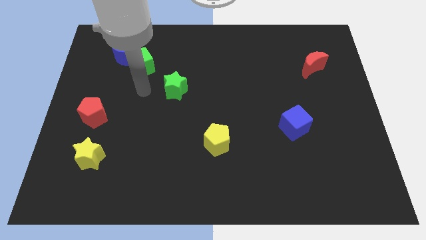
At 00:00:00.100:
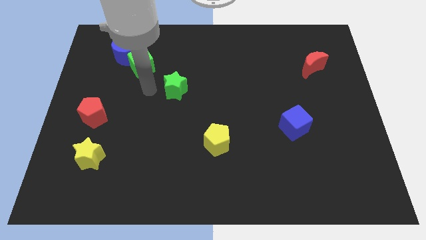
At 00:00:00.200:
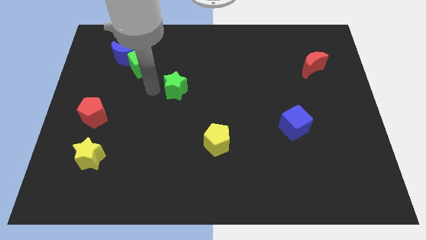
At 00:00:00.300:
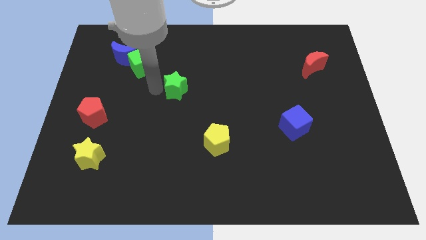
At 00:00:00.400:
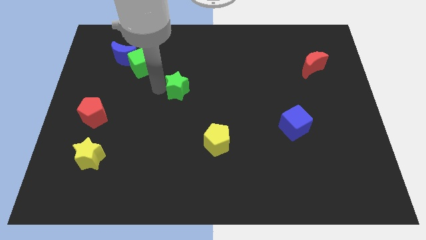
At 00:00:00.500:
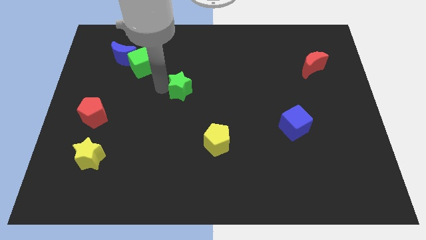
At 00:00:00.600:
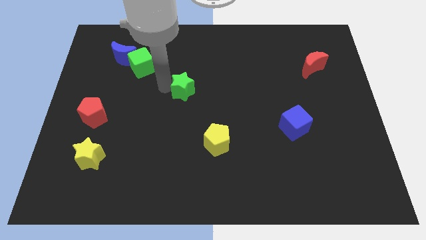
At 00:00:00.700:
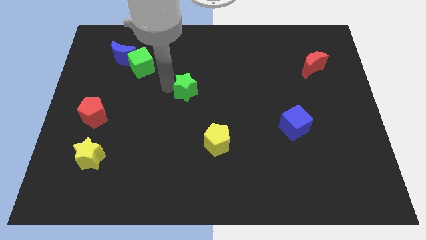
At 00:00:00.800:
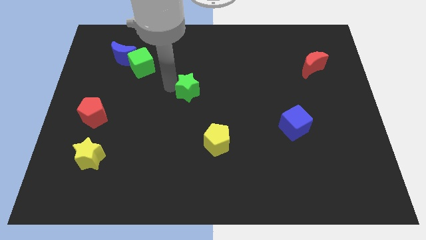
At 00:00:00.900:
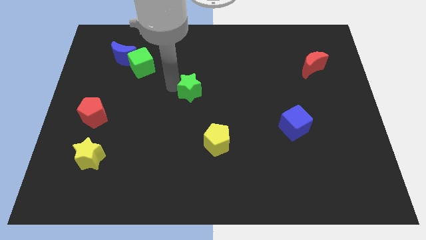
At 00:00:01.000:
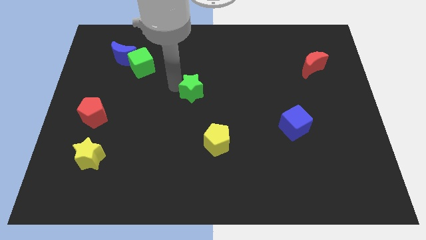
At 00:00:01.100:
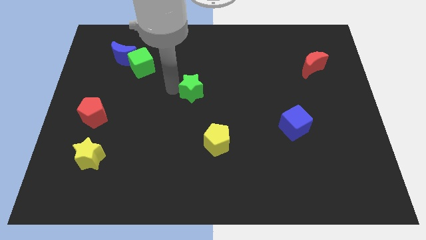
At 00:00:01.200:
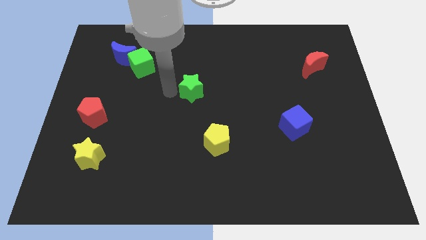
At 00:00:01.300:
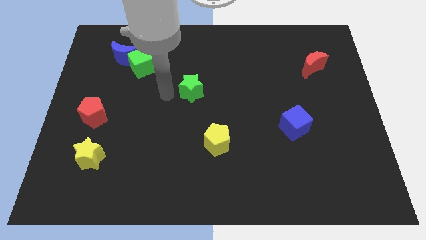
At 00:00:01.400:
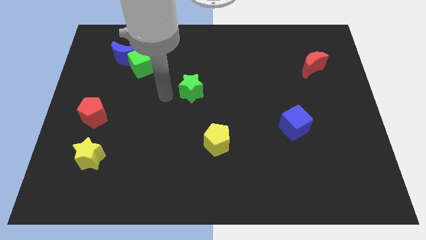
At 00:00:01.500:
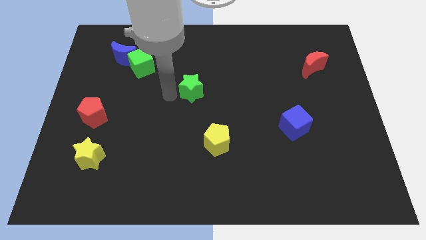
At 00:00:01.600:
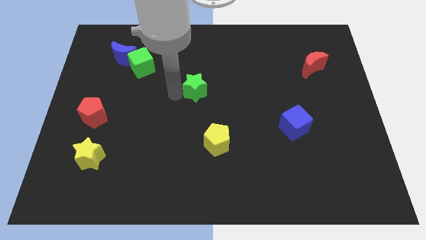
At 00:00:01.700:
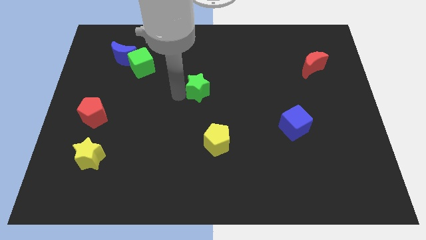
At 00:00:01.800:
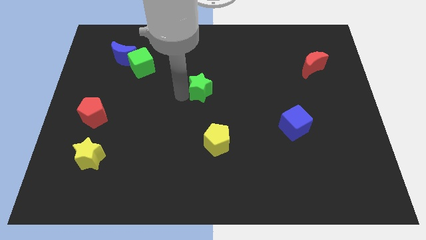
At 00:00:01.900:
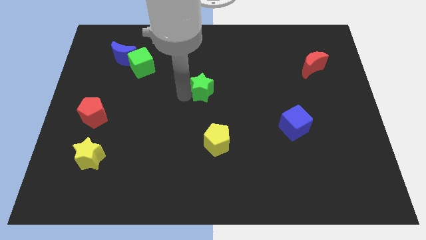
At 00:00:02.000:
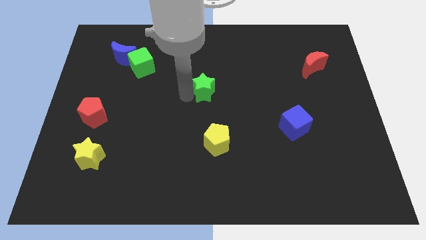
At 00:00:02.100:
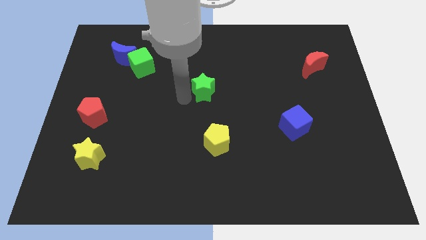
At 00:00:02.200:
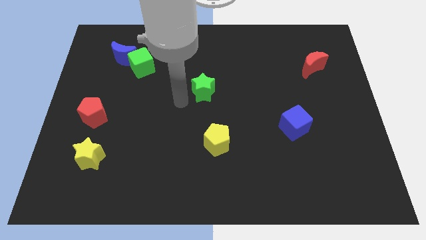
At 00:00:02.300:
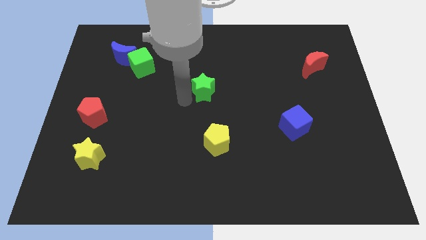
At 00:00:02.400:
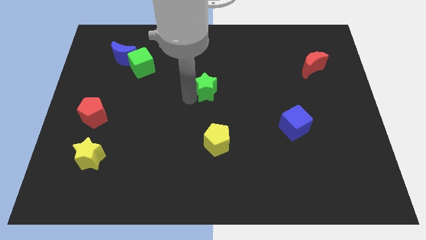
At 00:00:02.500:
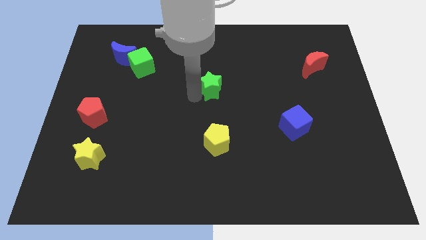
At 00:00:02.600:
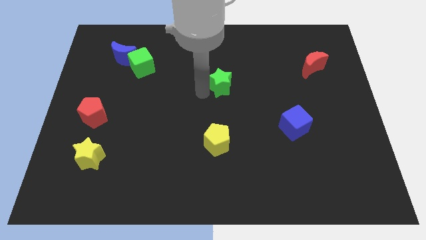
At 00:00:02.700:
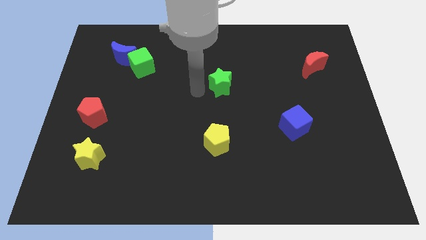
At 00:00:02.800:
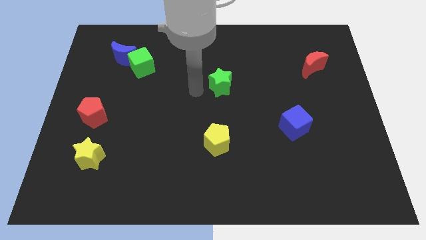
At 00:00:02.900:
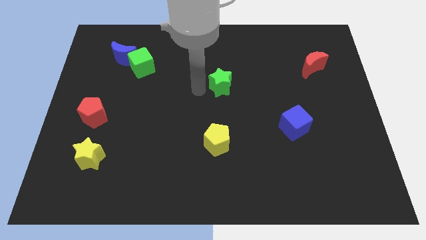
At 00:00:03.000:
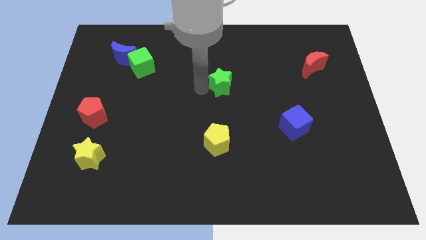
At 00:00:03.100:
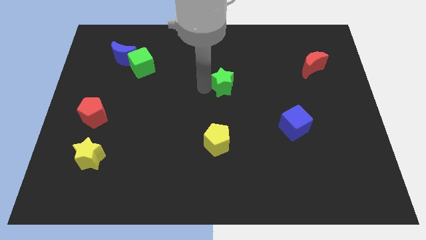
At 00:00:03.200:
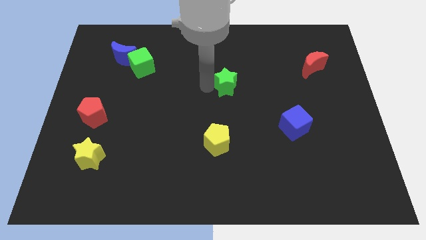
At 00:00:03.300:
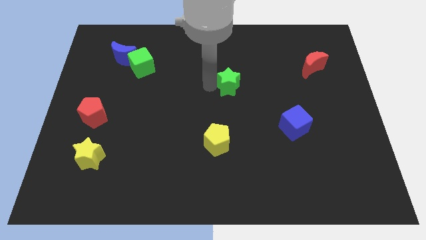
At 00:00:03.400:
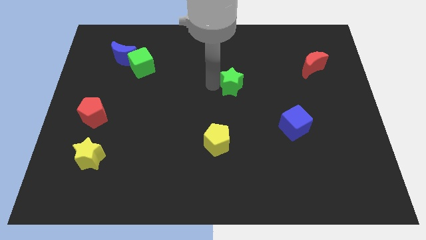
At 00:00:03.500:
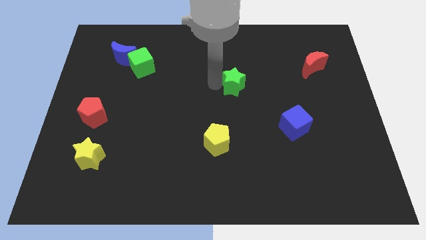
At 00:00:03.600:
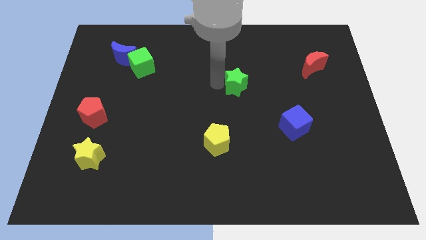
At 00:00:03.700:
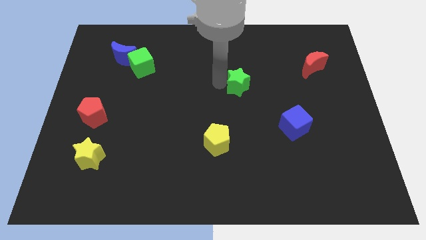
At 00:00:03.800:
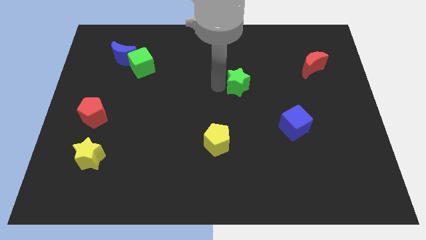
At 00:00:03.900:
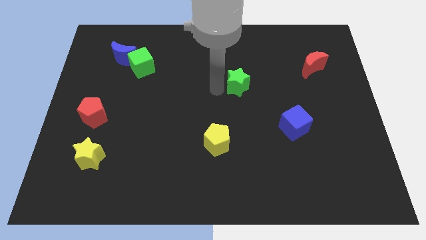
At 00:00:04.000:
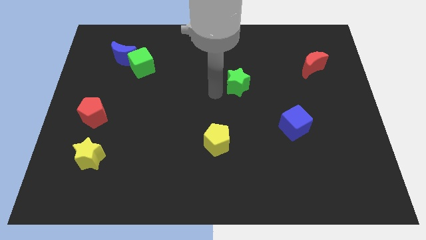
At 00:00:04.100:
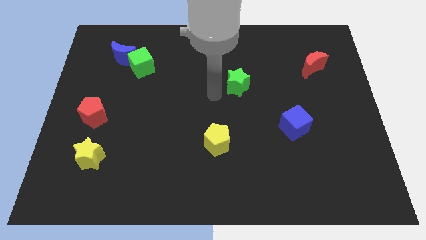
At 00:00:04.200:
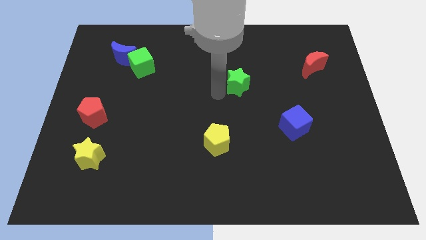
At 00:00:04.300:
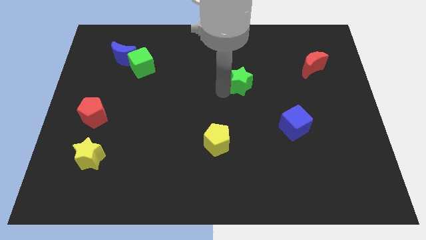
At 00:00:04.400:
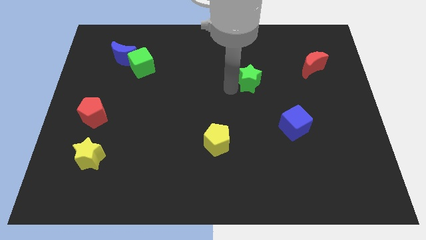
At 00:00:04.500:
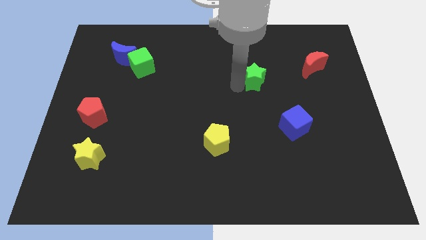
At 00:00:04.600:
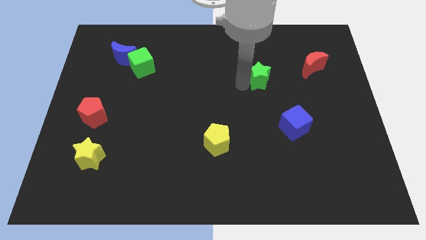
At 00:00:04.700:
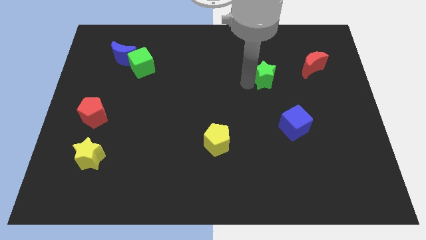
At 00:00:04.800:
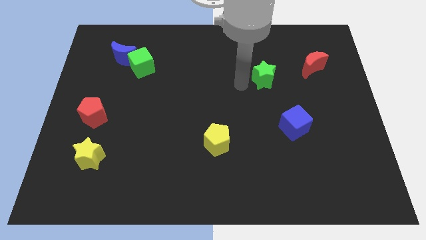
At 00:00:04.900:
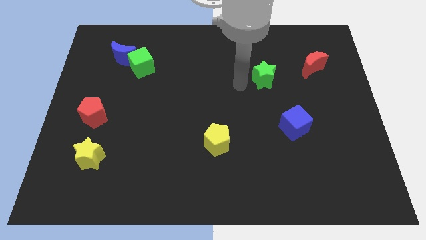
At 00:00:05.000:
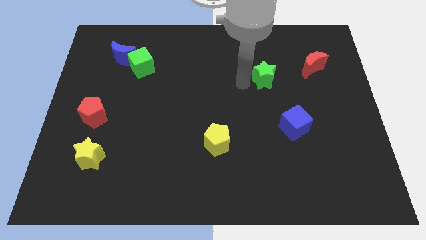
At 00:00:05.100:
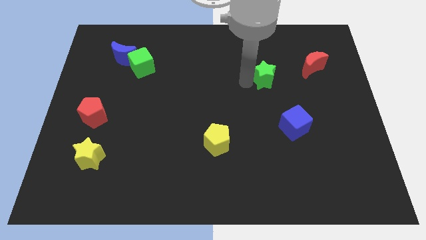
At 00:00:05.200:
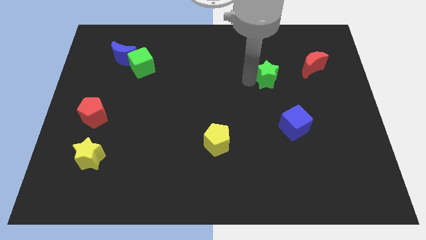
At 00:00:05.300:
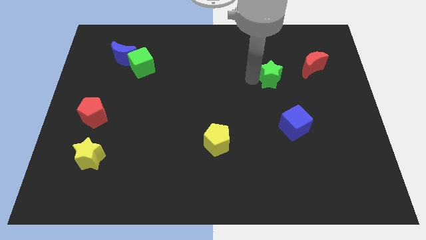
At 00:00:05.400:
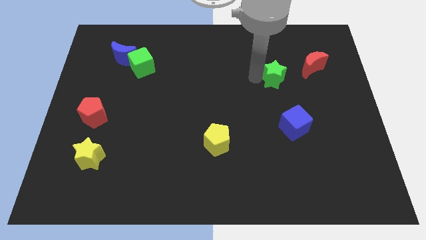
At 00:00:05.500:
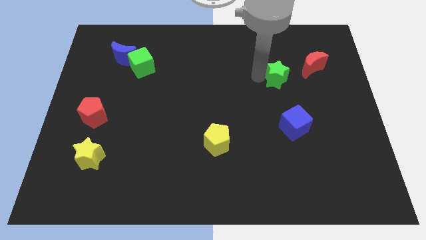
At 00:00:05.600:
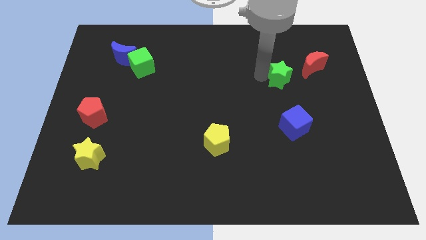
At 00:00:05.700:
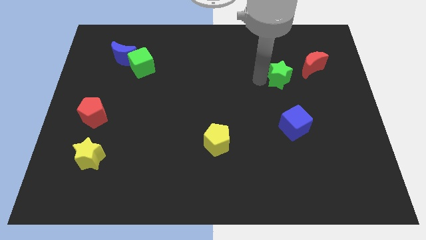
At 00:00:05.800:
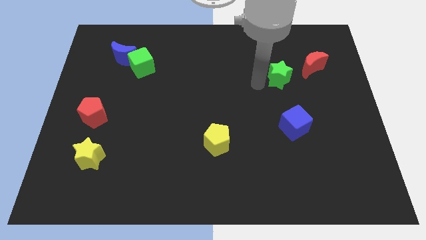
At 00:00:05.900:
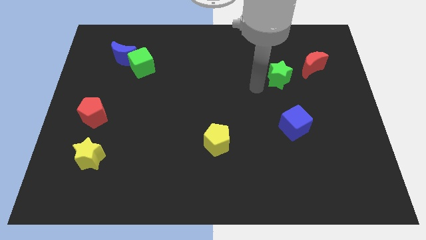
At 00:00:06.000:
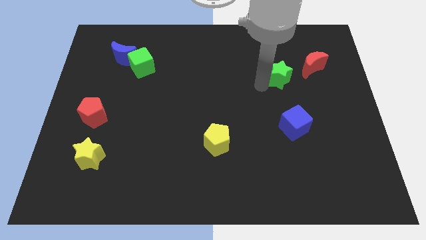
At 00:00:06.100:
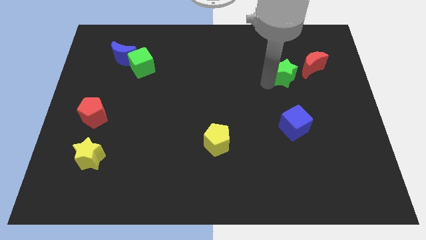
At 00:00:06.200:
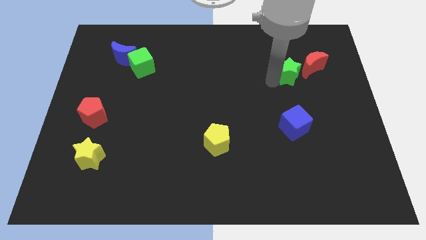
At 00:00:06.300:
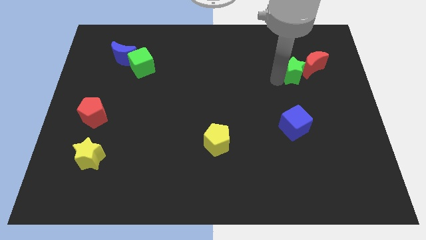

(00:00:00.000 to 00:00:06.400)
put the green star close to the red moon

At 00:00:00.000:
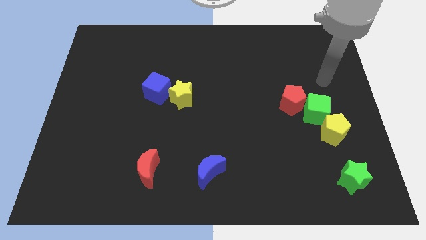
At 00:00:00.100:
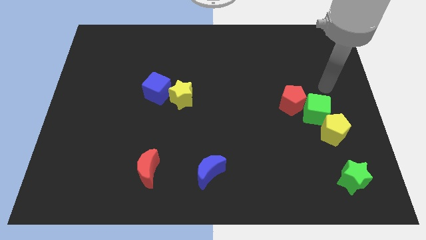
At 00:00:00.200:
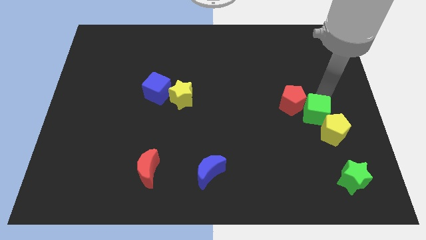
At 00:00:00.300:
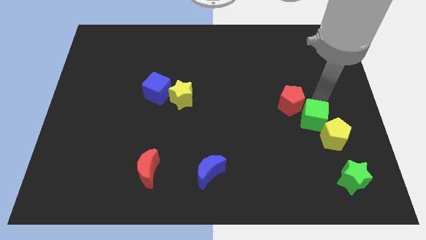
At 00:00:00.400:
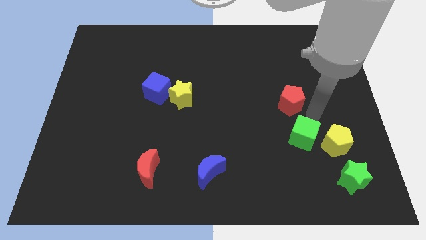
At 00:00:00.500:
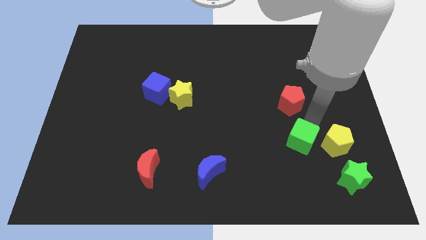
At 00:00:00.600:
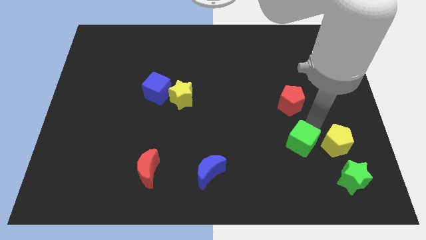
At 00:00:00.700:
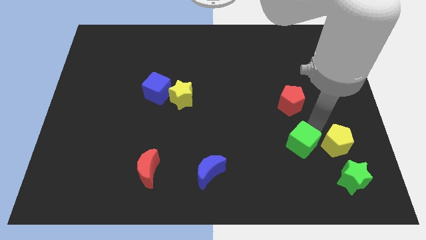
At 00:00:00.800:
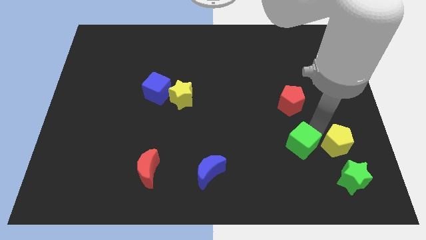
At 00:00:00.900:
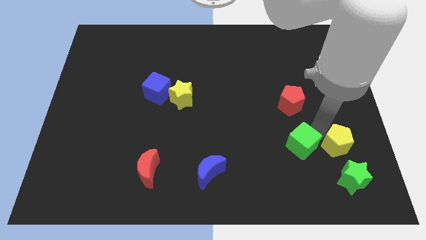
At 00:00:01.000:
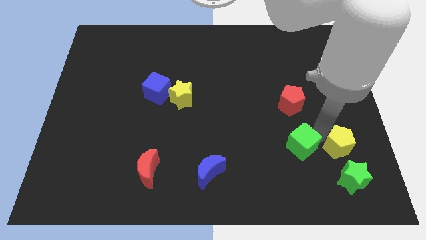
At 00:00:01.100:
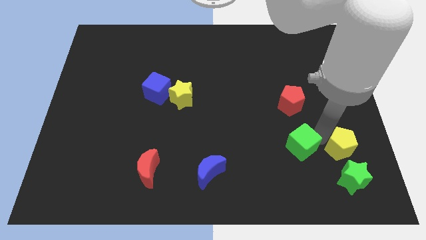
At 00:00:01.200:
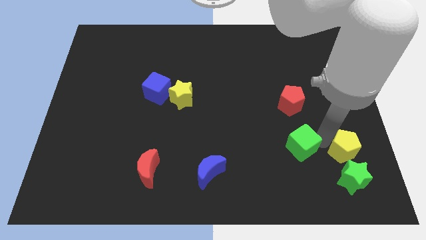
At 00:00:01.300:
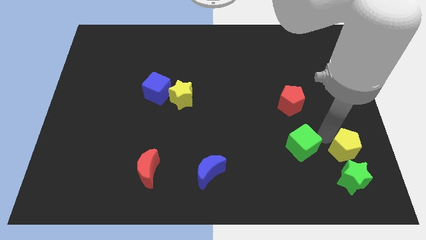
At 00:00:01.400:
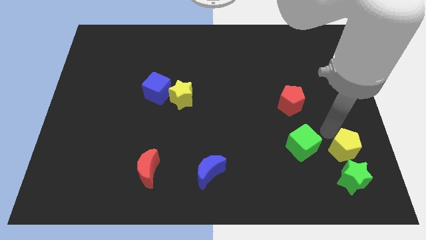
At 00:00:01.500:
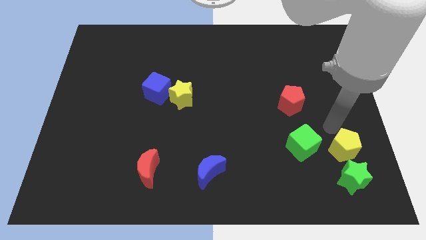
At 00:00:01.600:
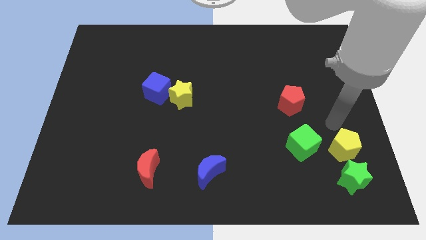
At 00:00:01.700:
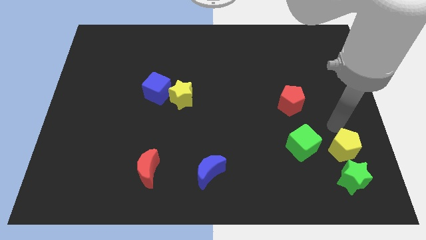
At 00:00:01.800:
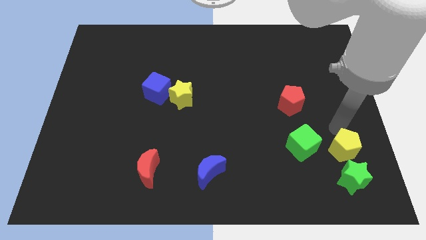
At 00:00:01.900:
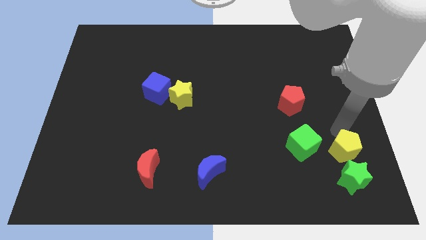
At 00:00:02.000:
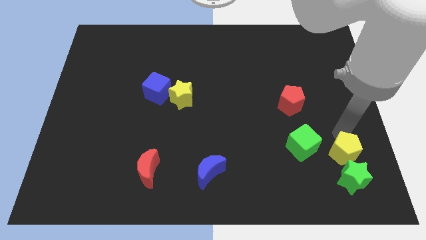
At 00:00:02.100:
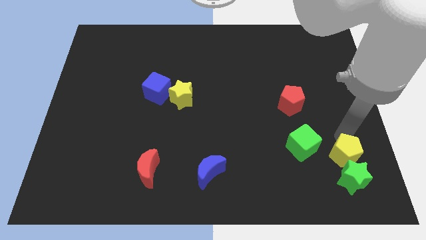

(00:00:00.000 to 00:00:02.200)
put the yellow pentagon to the green star
